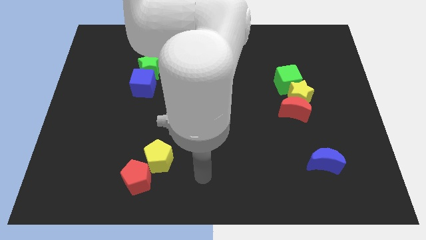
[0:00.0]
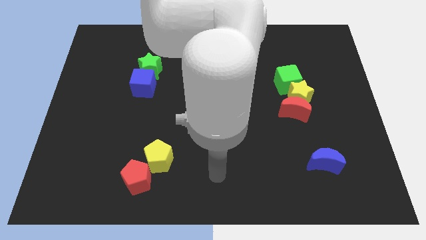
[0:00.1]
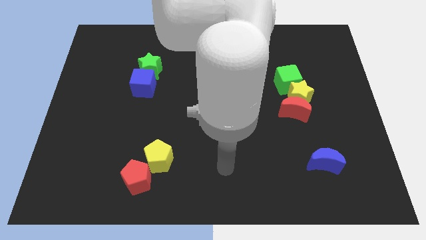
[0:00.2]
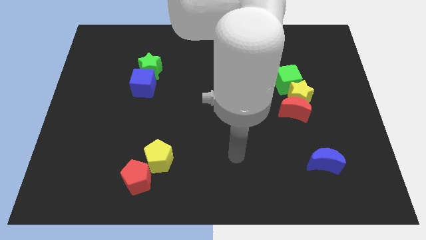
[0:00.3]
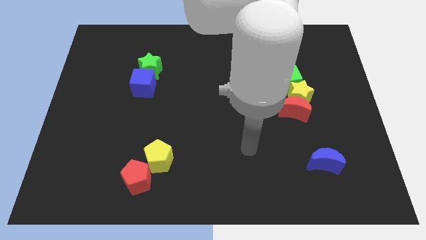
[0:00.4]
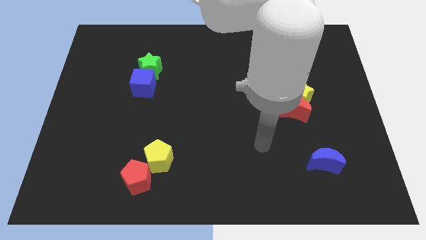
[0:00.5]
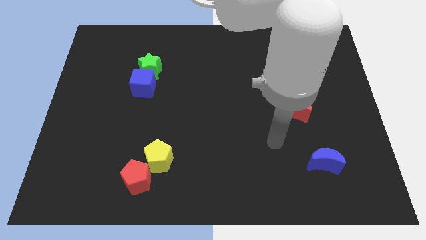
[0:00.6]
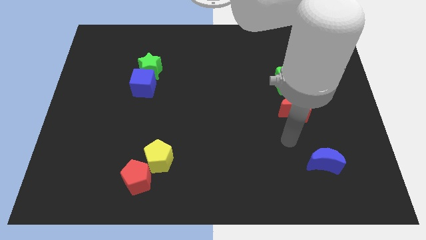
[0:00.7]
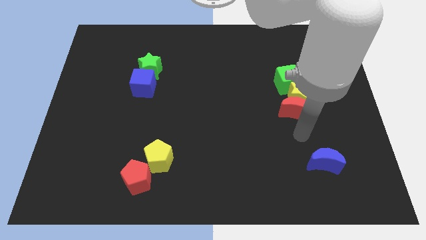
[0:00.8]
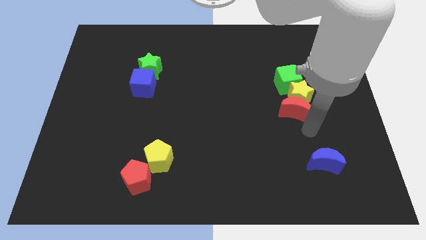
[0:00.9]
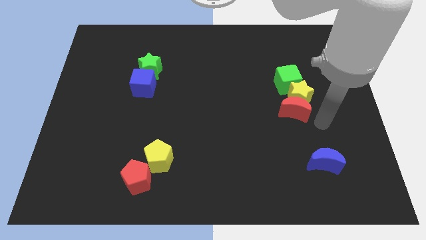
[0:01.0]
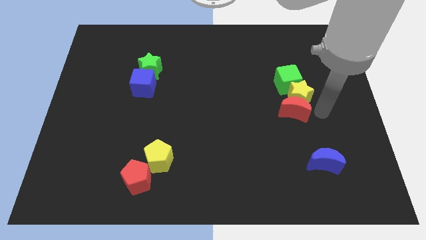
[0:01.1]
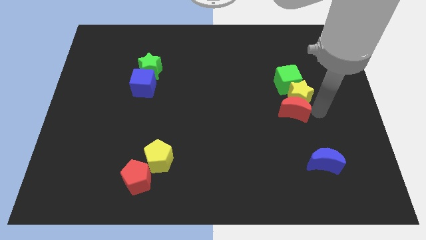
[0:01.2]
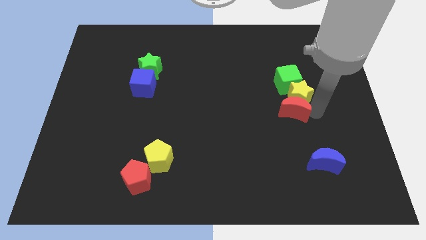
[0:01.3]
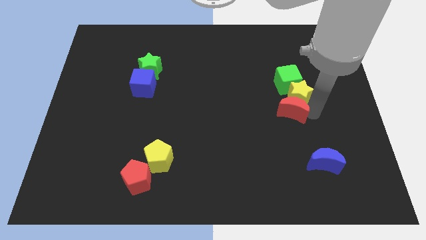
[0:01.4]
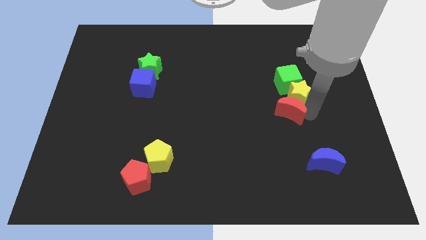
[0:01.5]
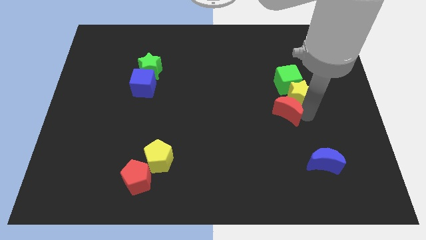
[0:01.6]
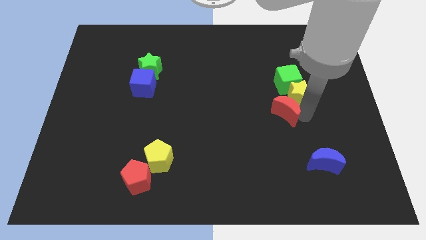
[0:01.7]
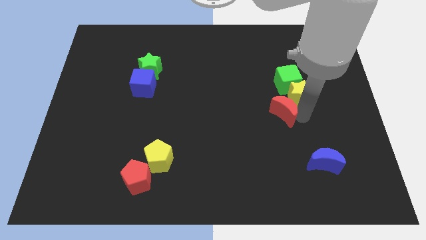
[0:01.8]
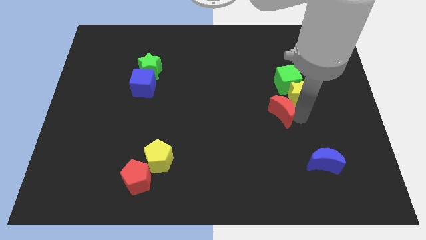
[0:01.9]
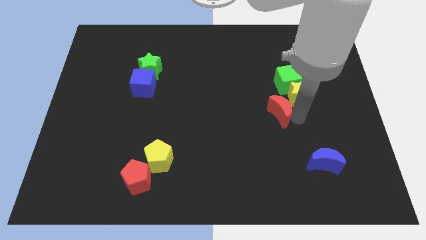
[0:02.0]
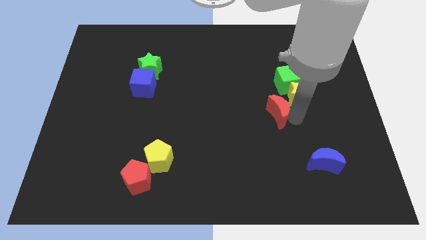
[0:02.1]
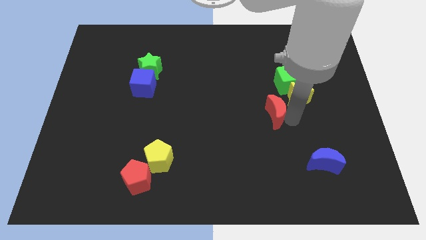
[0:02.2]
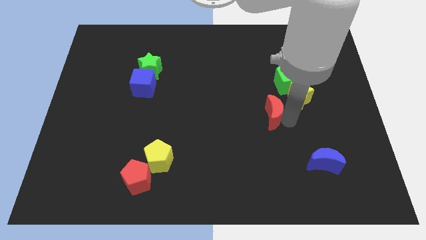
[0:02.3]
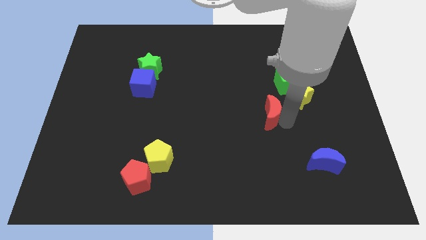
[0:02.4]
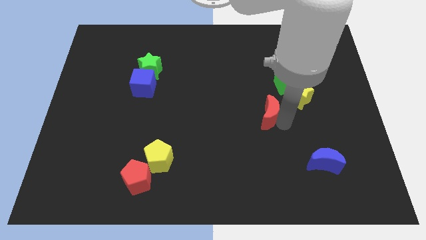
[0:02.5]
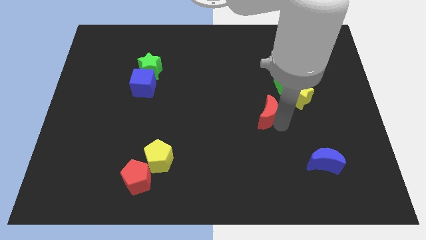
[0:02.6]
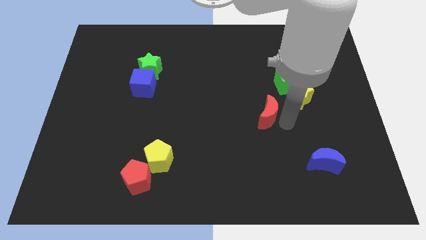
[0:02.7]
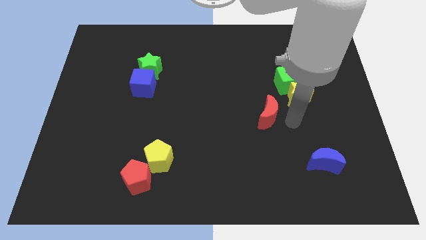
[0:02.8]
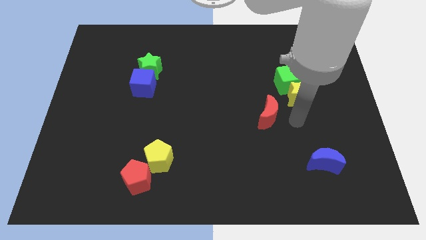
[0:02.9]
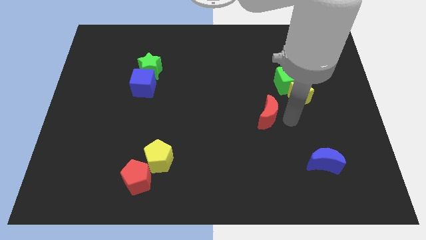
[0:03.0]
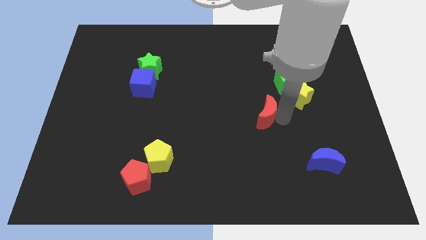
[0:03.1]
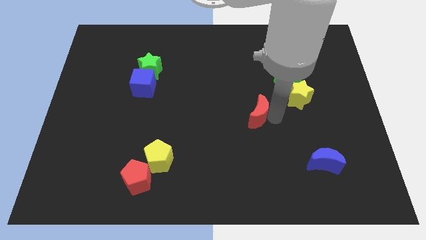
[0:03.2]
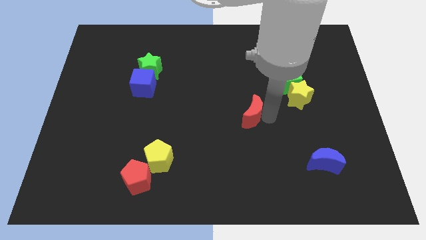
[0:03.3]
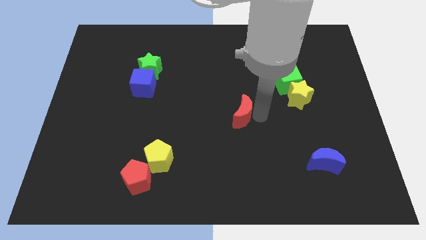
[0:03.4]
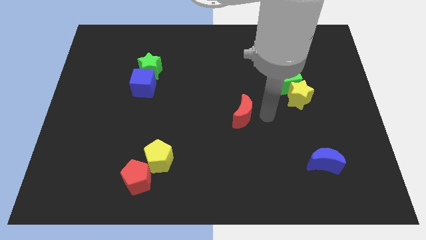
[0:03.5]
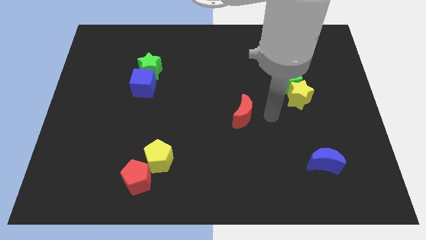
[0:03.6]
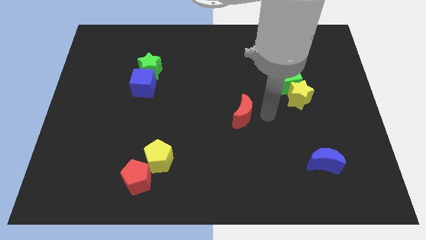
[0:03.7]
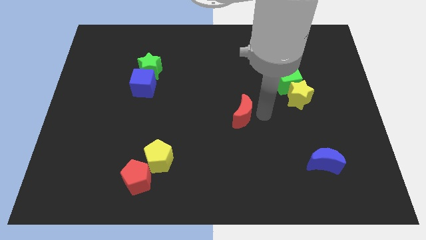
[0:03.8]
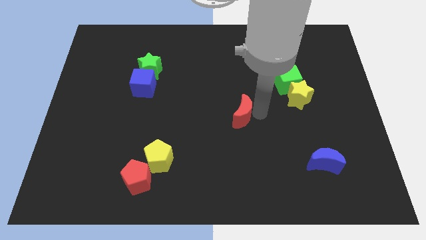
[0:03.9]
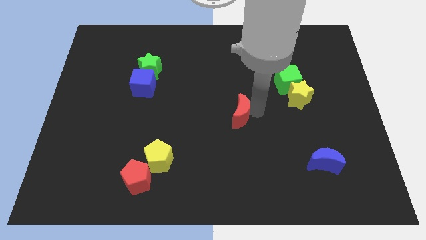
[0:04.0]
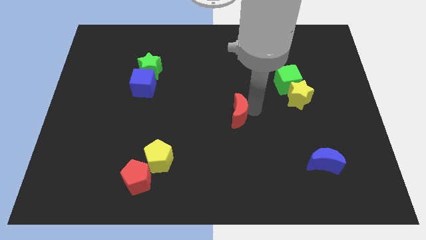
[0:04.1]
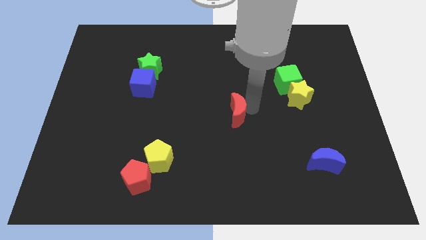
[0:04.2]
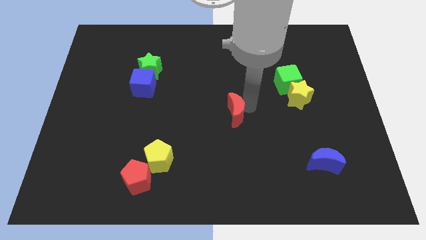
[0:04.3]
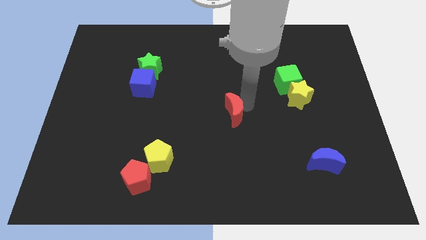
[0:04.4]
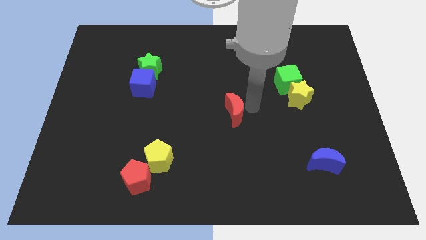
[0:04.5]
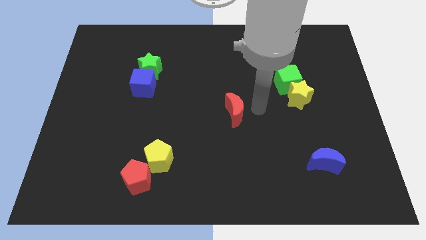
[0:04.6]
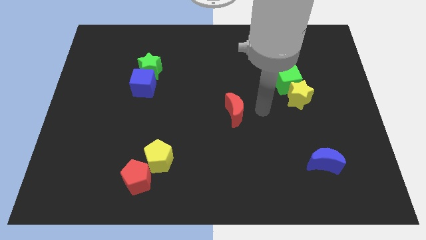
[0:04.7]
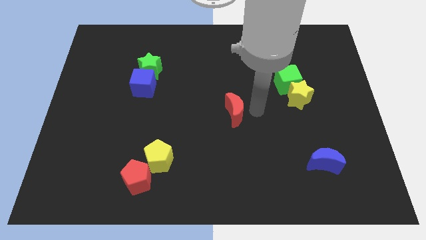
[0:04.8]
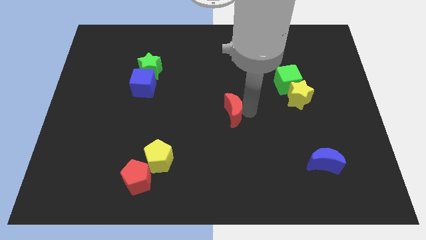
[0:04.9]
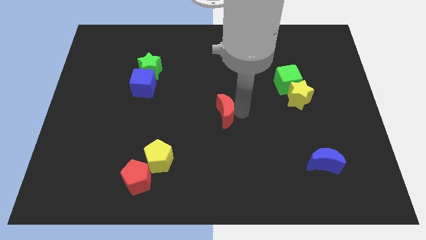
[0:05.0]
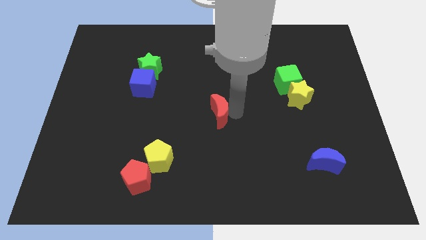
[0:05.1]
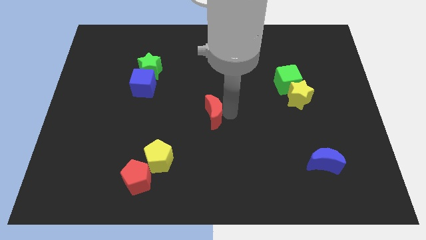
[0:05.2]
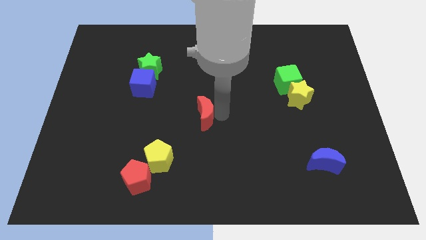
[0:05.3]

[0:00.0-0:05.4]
move the red moon left

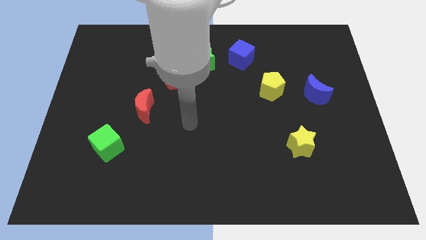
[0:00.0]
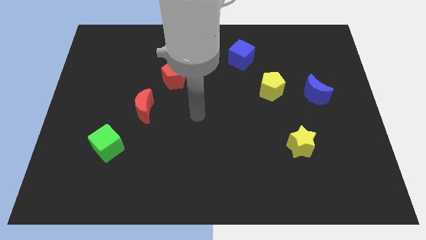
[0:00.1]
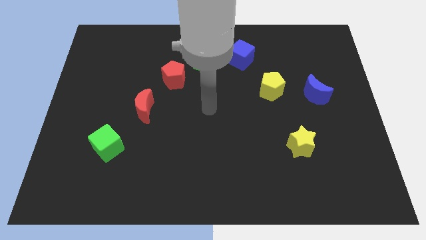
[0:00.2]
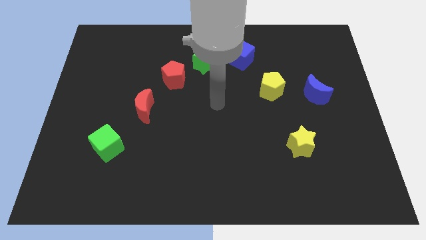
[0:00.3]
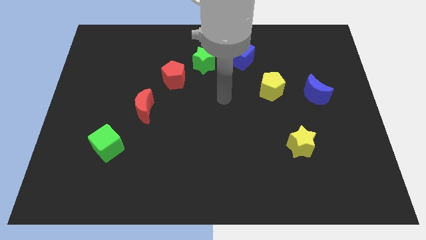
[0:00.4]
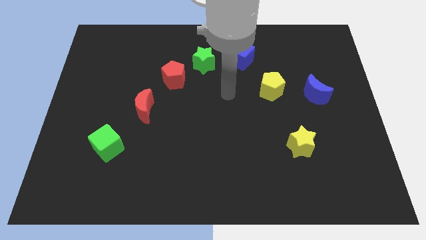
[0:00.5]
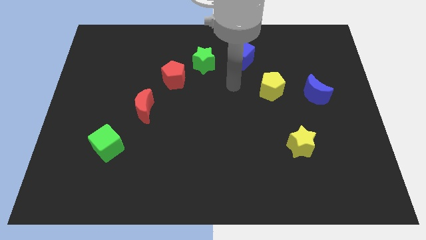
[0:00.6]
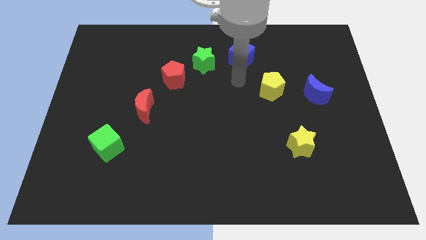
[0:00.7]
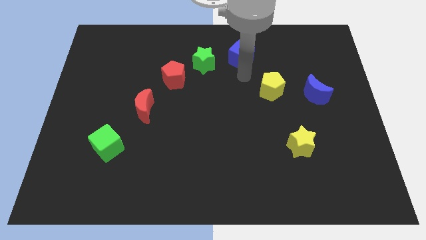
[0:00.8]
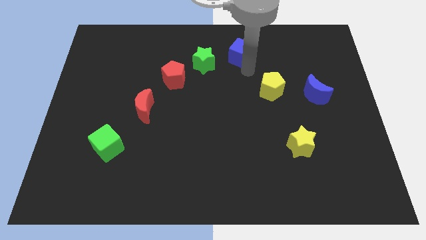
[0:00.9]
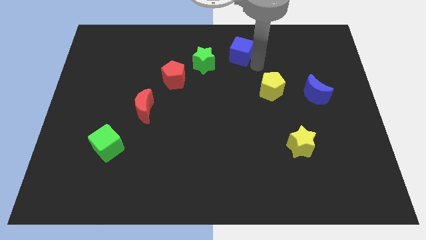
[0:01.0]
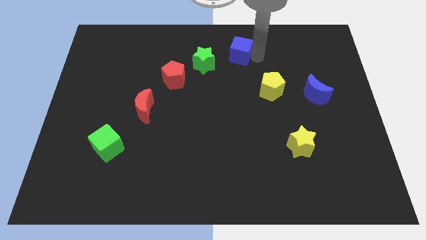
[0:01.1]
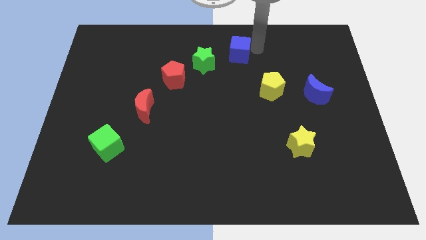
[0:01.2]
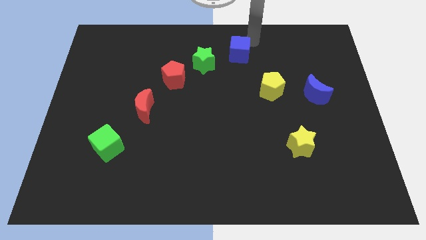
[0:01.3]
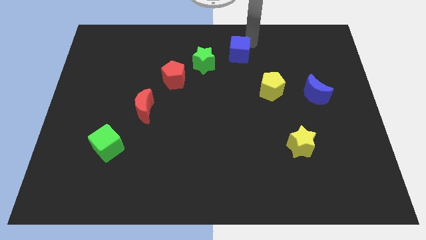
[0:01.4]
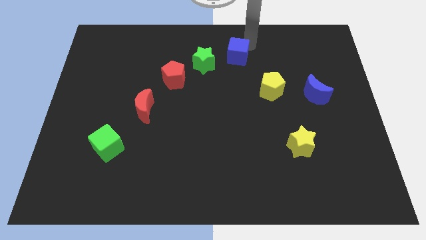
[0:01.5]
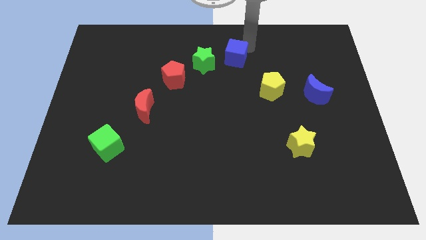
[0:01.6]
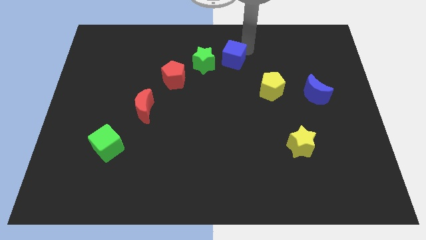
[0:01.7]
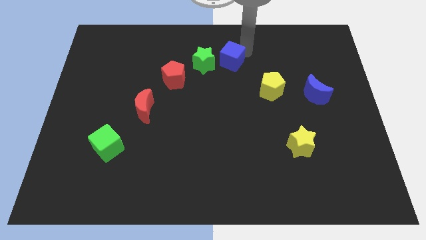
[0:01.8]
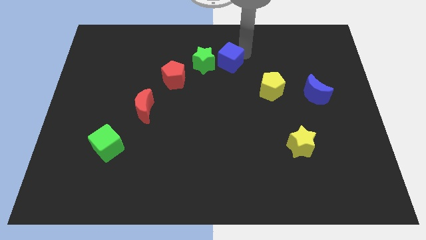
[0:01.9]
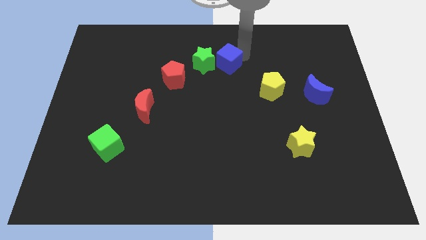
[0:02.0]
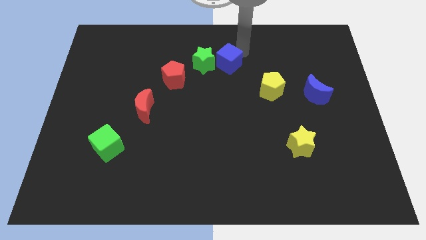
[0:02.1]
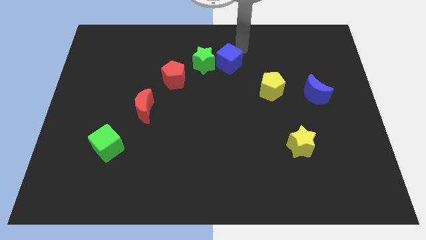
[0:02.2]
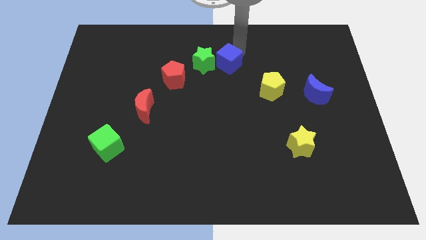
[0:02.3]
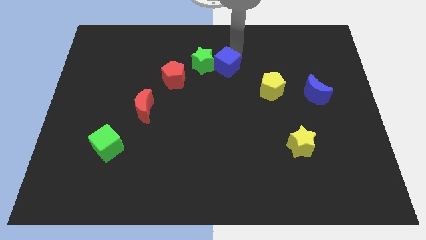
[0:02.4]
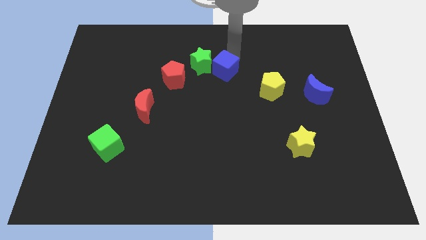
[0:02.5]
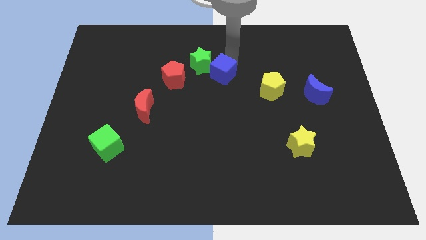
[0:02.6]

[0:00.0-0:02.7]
slide the blue cube slightly down and left diagonally
